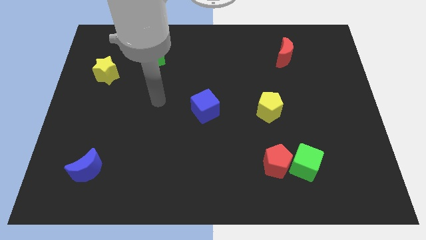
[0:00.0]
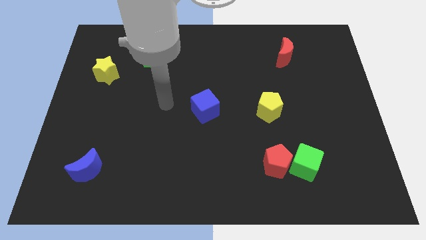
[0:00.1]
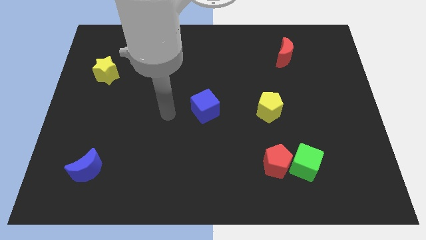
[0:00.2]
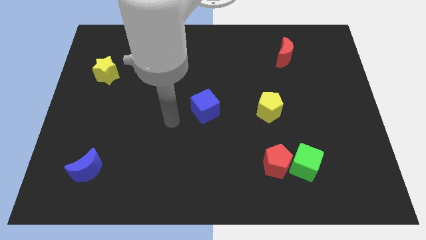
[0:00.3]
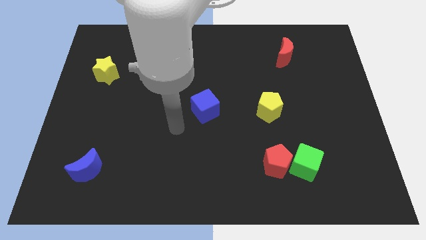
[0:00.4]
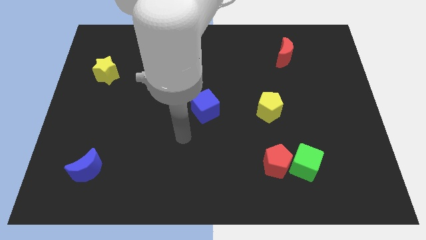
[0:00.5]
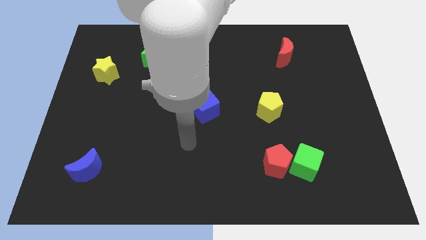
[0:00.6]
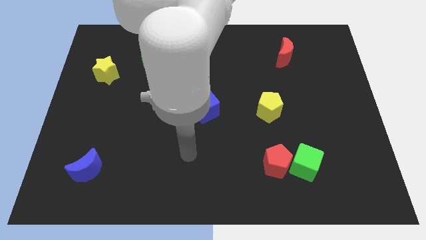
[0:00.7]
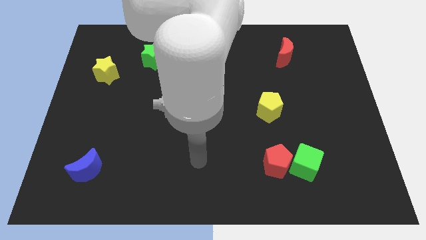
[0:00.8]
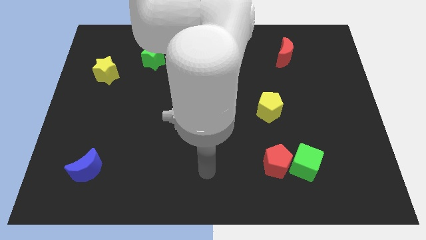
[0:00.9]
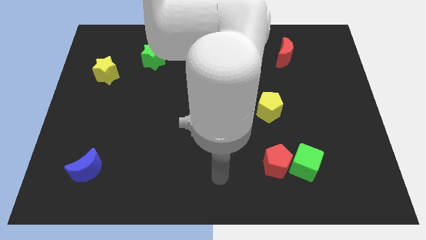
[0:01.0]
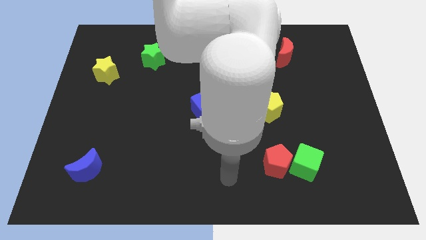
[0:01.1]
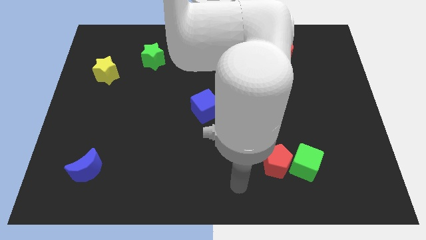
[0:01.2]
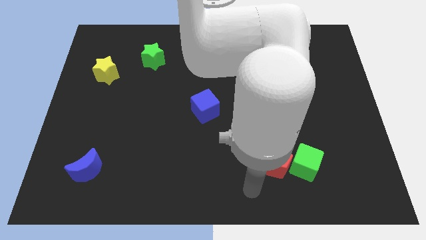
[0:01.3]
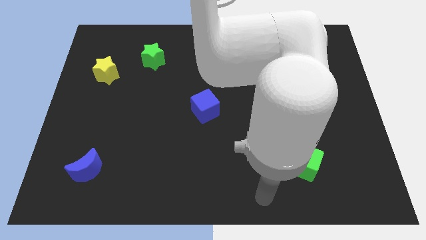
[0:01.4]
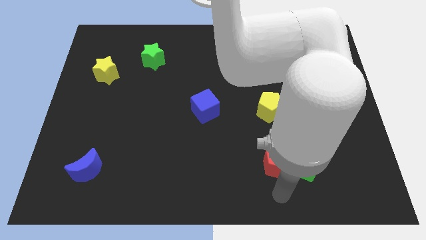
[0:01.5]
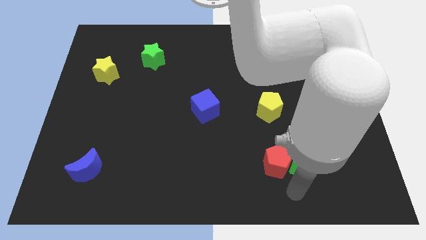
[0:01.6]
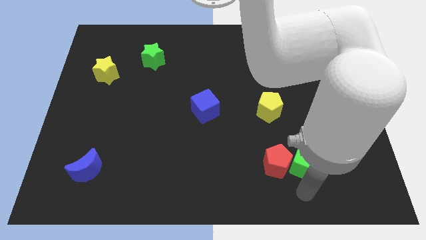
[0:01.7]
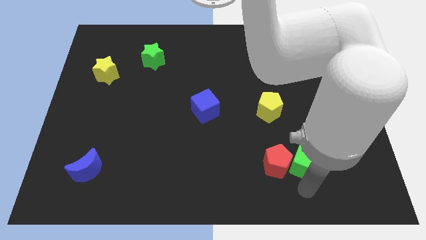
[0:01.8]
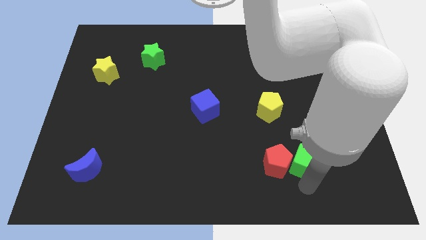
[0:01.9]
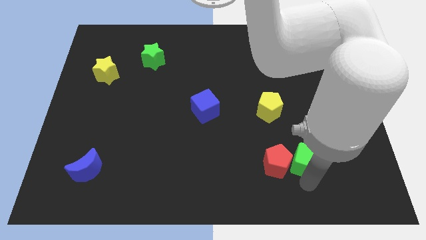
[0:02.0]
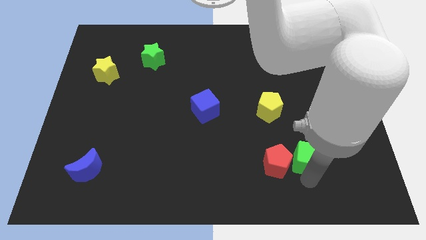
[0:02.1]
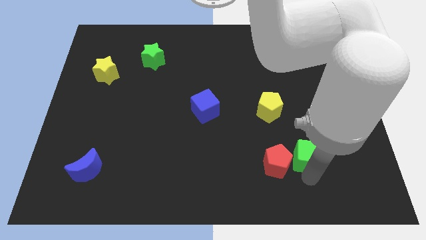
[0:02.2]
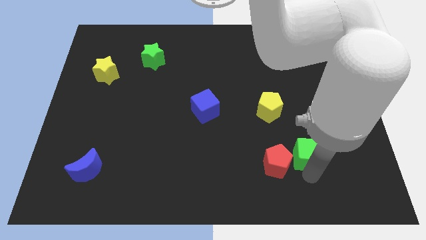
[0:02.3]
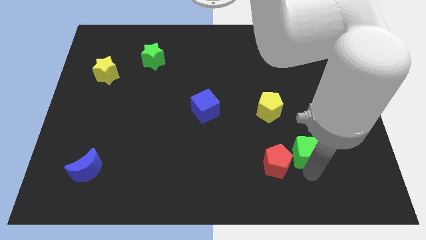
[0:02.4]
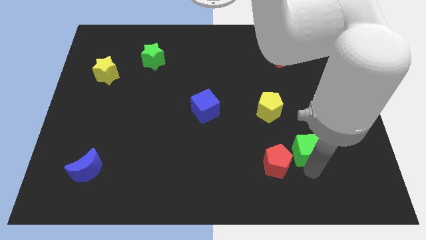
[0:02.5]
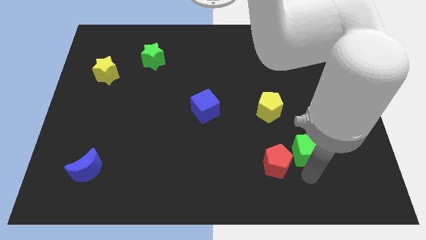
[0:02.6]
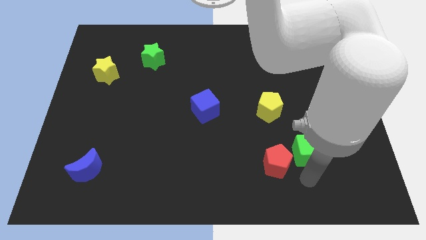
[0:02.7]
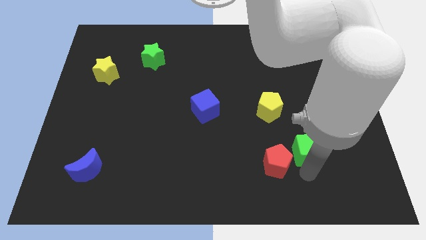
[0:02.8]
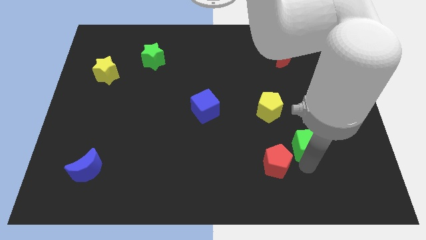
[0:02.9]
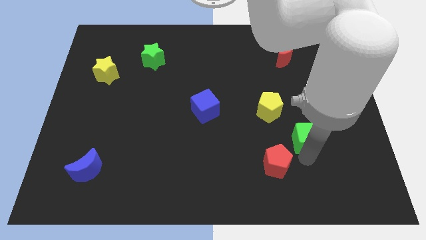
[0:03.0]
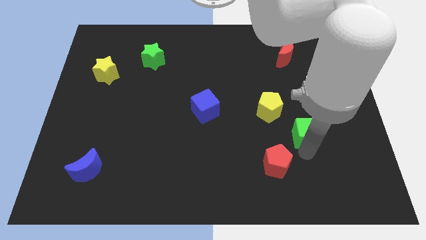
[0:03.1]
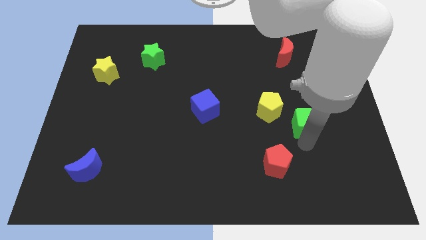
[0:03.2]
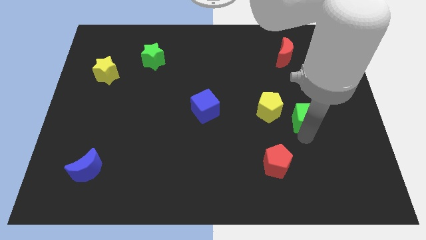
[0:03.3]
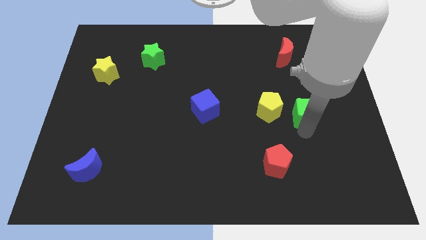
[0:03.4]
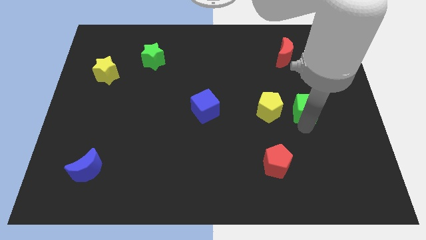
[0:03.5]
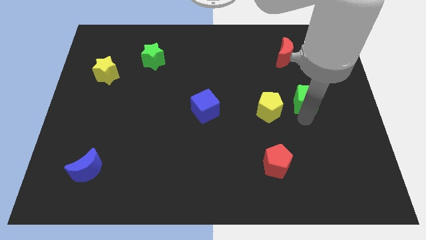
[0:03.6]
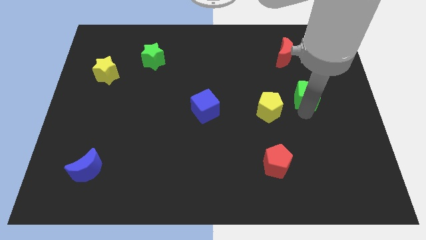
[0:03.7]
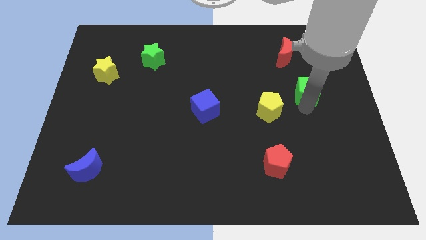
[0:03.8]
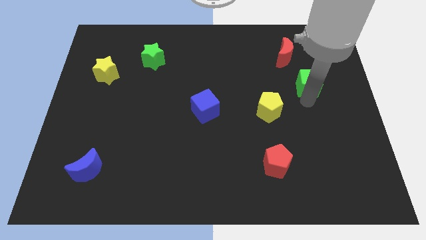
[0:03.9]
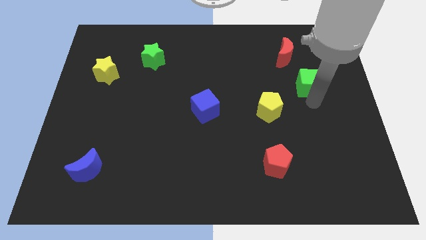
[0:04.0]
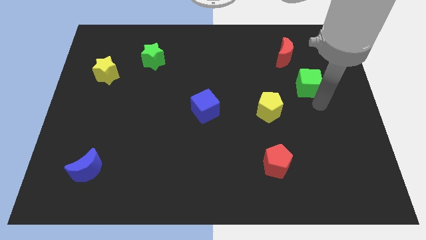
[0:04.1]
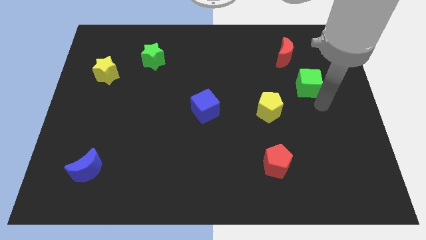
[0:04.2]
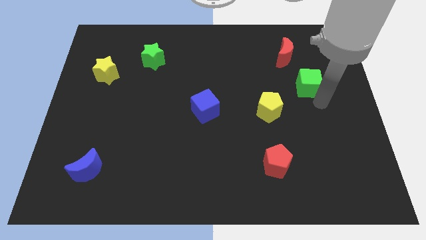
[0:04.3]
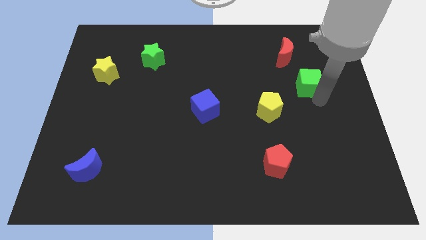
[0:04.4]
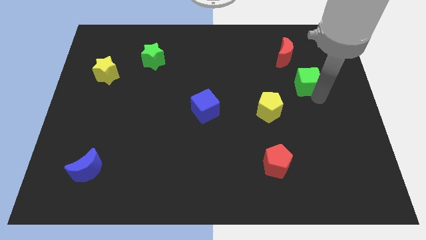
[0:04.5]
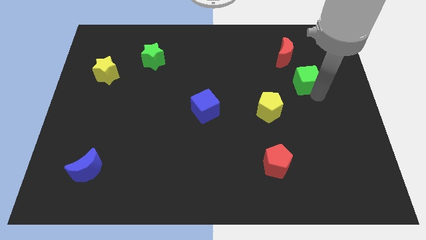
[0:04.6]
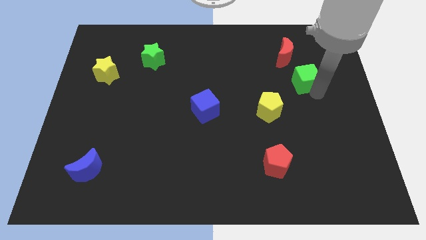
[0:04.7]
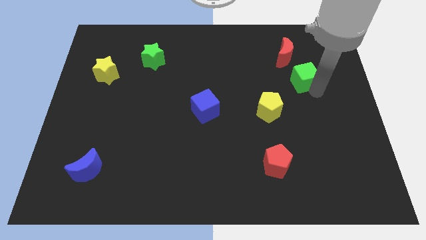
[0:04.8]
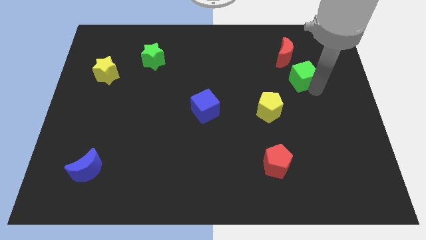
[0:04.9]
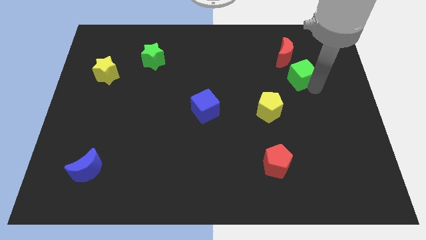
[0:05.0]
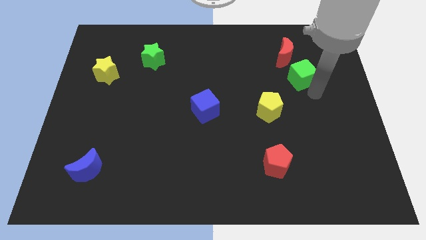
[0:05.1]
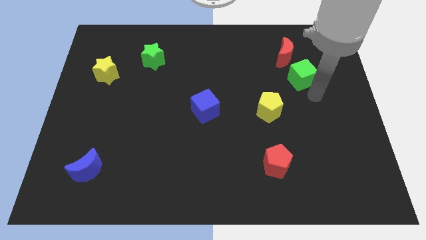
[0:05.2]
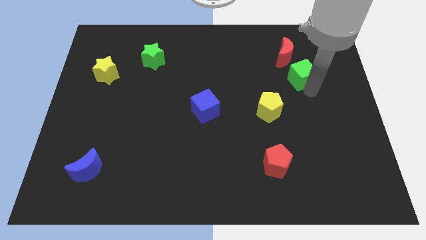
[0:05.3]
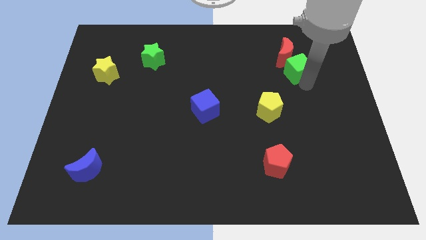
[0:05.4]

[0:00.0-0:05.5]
move the green cube next to the red moon
